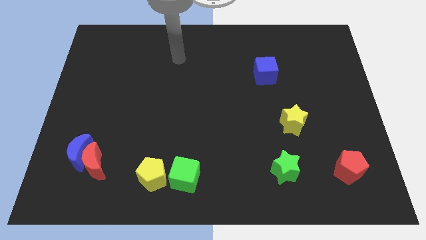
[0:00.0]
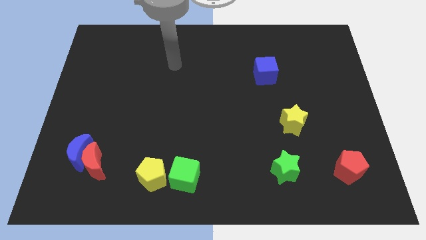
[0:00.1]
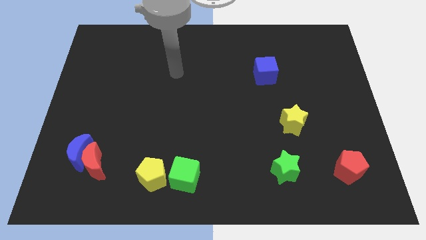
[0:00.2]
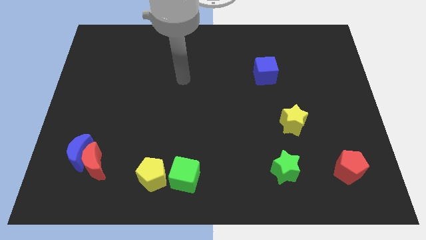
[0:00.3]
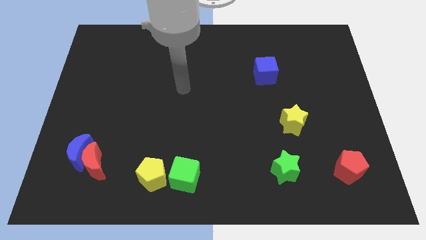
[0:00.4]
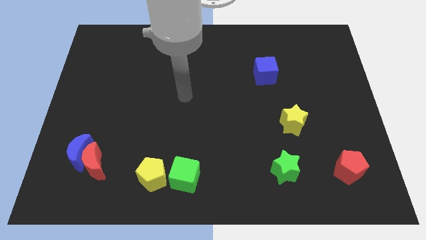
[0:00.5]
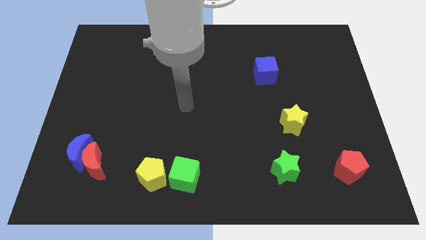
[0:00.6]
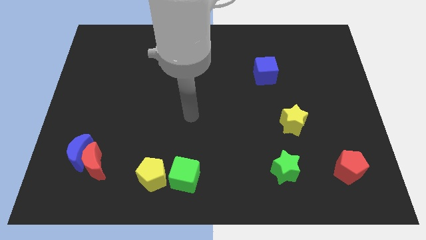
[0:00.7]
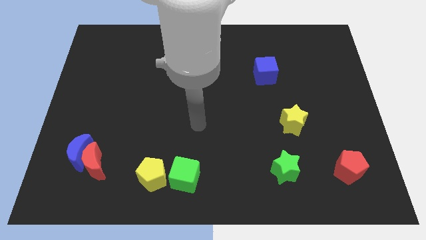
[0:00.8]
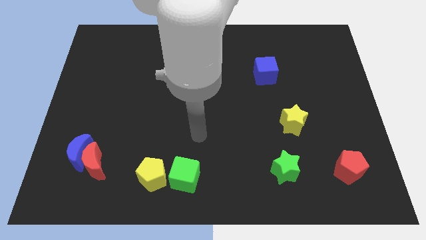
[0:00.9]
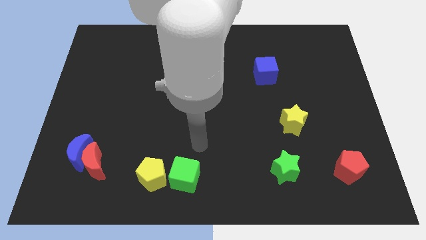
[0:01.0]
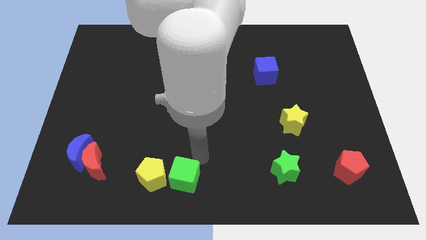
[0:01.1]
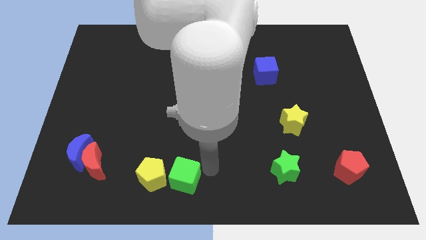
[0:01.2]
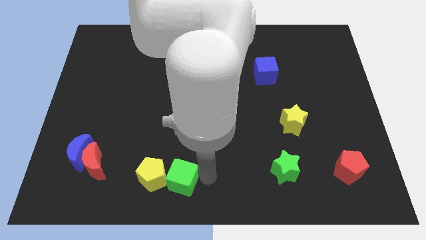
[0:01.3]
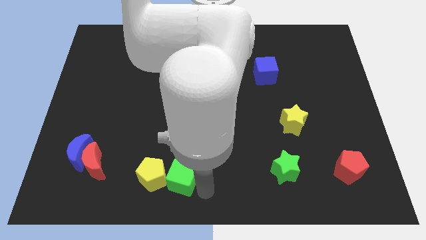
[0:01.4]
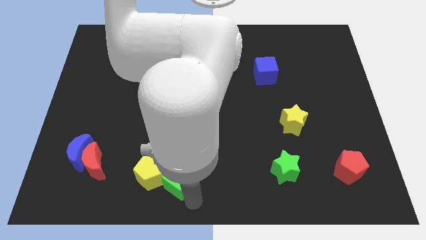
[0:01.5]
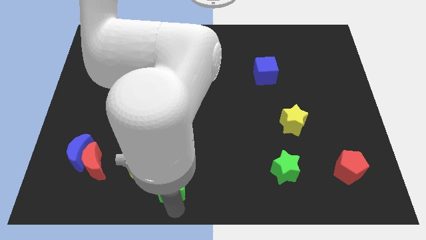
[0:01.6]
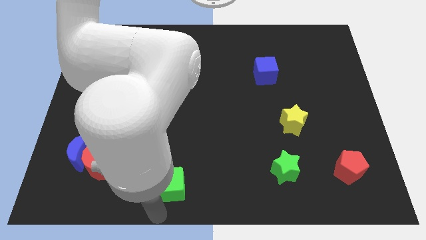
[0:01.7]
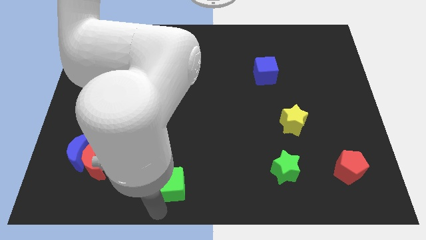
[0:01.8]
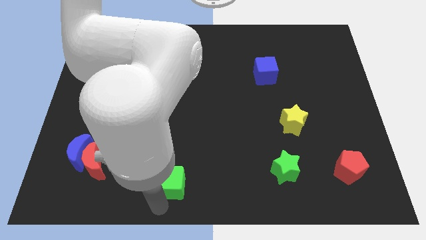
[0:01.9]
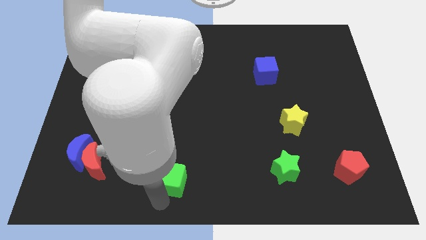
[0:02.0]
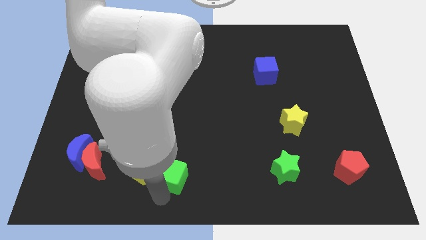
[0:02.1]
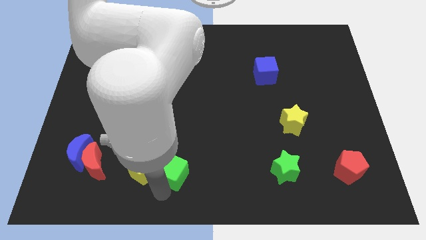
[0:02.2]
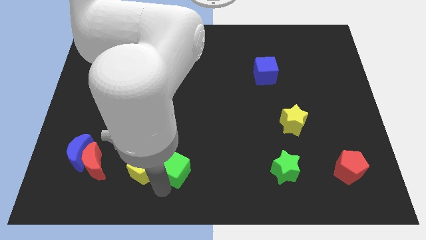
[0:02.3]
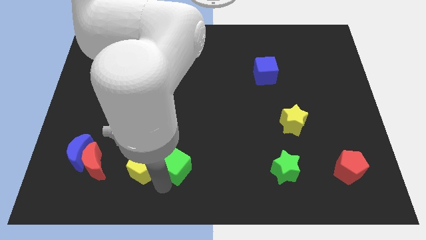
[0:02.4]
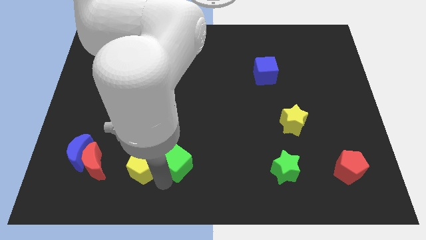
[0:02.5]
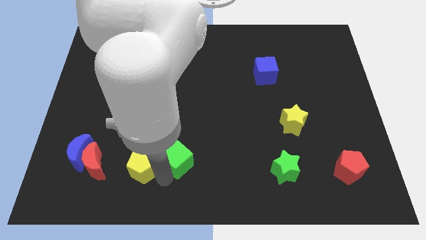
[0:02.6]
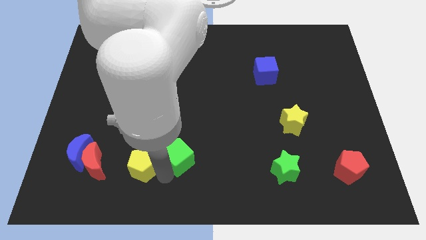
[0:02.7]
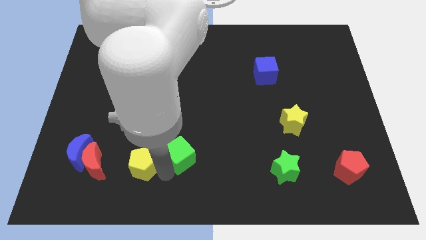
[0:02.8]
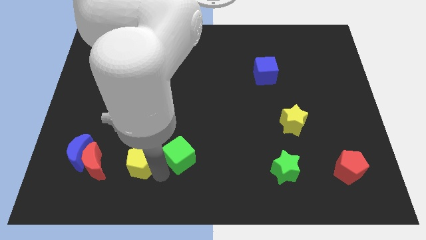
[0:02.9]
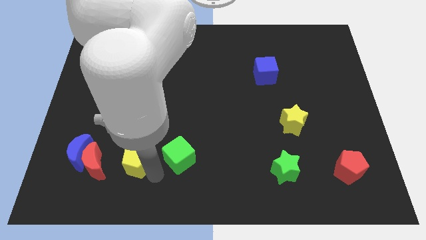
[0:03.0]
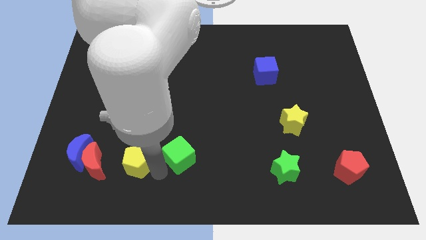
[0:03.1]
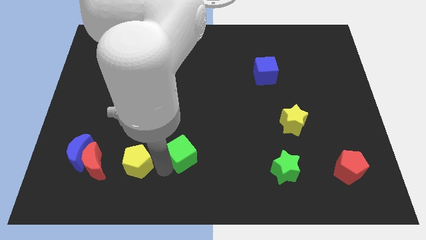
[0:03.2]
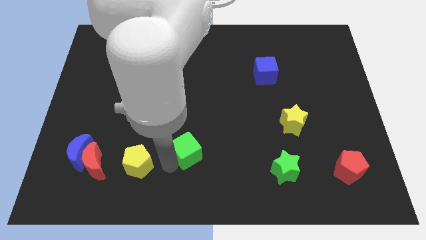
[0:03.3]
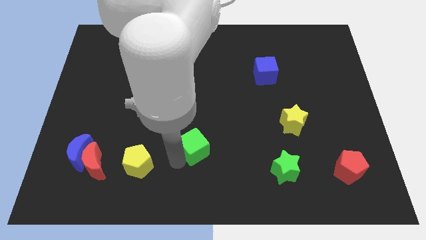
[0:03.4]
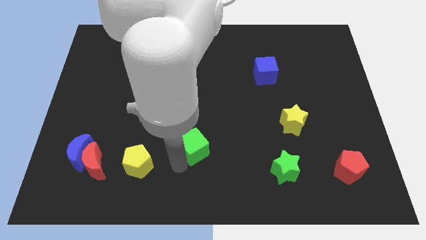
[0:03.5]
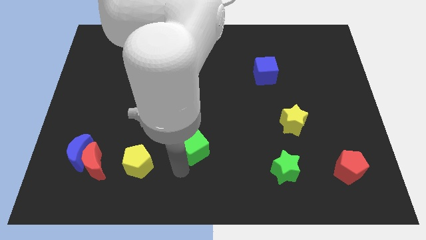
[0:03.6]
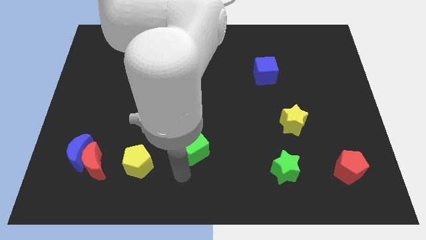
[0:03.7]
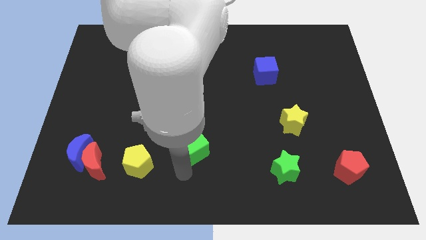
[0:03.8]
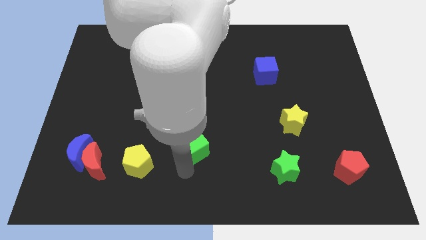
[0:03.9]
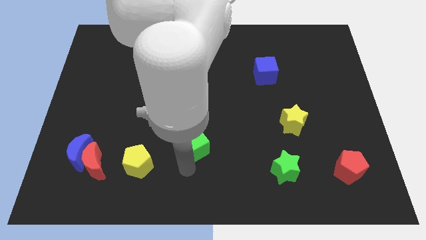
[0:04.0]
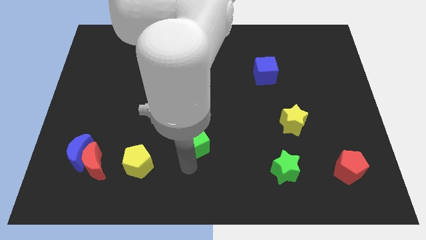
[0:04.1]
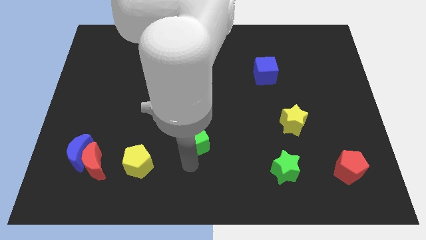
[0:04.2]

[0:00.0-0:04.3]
move the green cube to the middle of the board

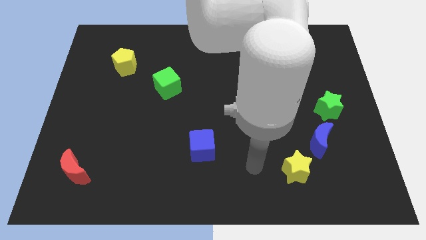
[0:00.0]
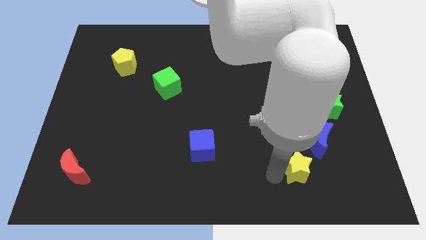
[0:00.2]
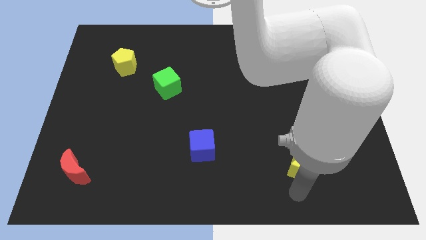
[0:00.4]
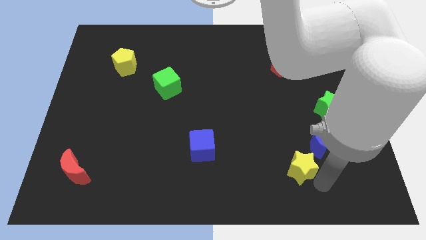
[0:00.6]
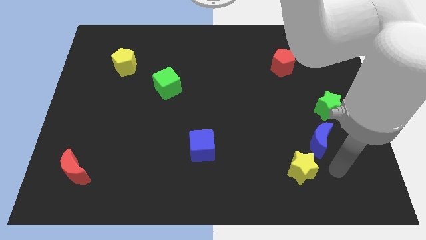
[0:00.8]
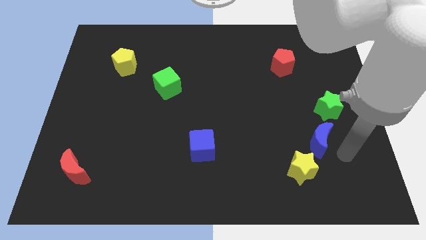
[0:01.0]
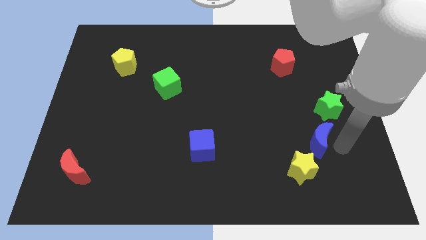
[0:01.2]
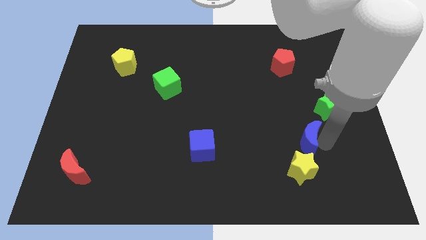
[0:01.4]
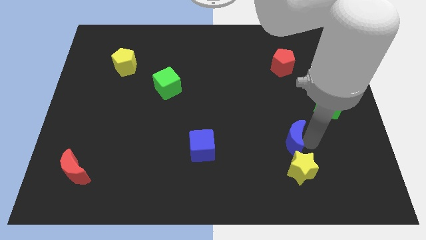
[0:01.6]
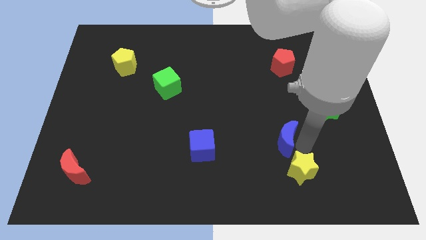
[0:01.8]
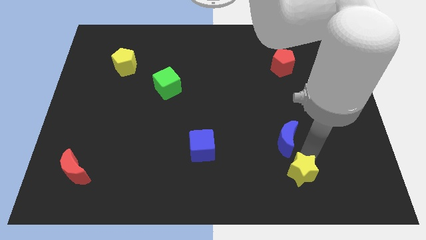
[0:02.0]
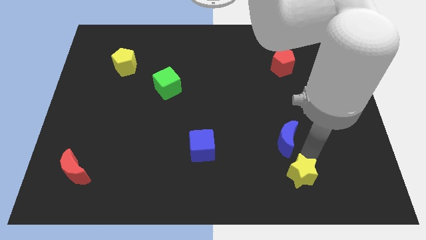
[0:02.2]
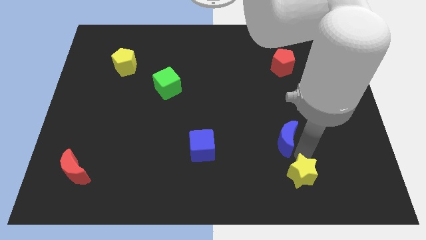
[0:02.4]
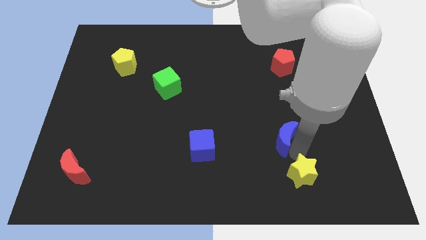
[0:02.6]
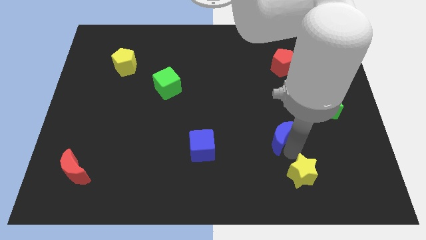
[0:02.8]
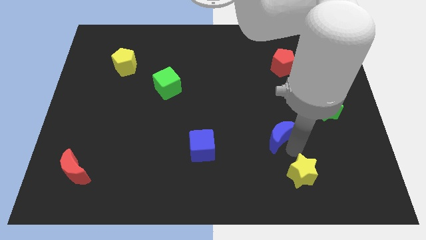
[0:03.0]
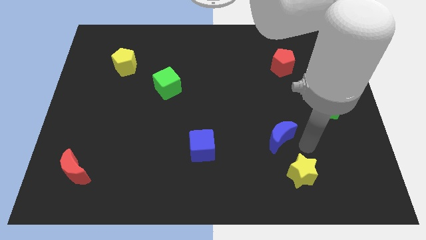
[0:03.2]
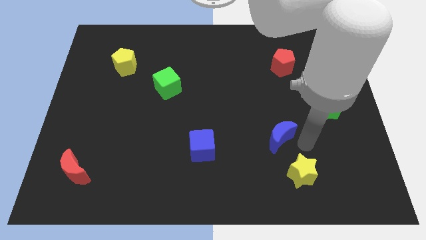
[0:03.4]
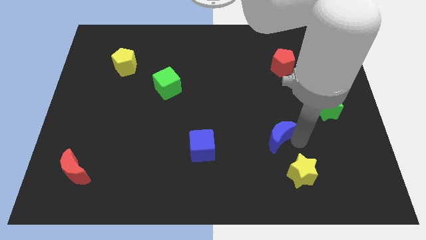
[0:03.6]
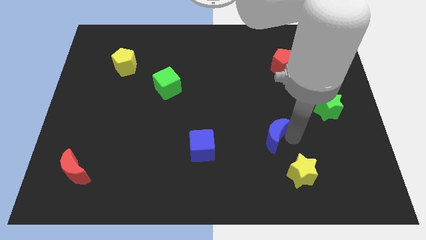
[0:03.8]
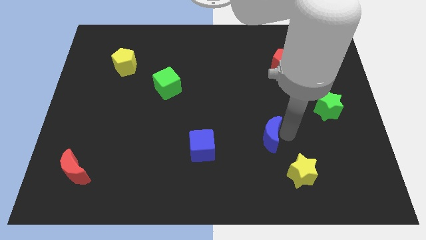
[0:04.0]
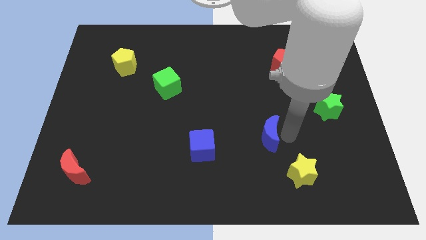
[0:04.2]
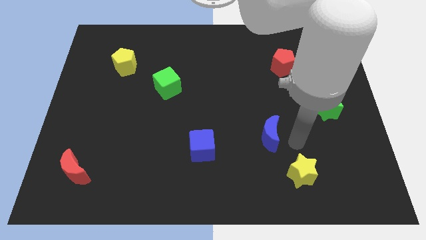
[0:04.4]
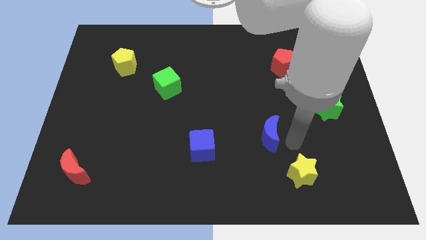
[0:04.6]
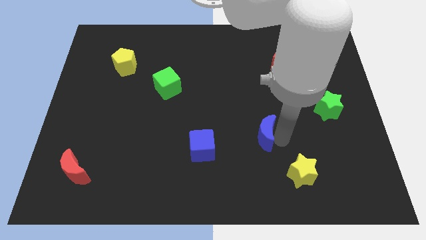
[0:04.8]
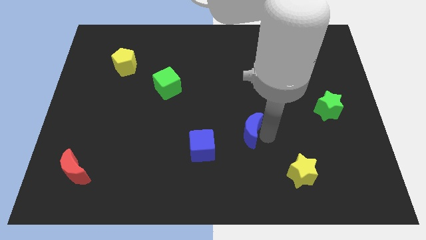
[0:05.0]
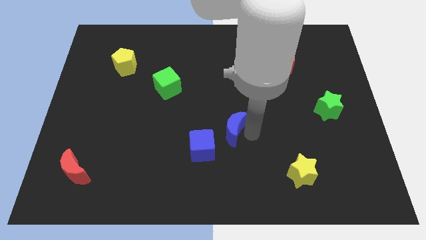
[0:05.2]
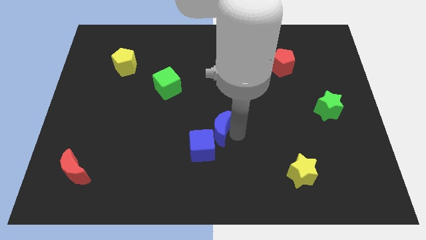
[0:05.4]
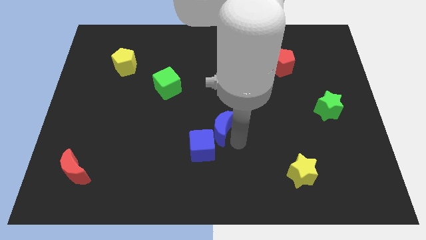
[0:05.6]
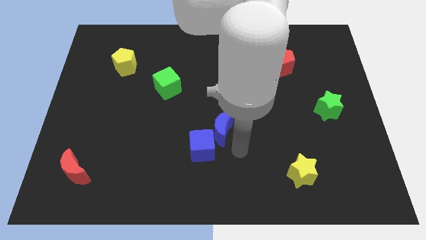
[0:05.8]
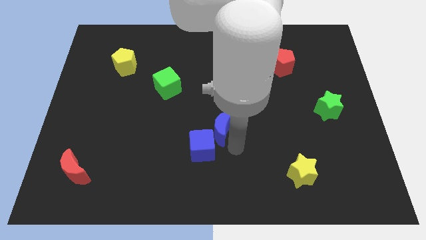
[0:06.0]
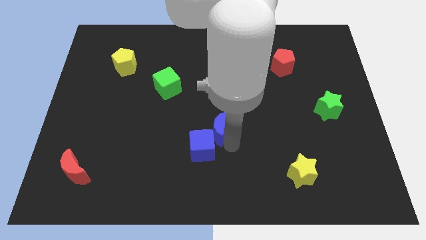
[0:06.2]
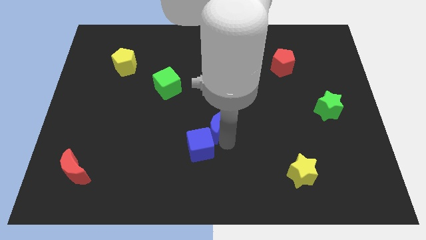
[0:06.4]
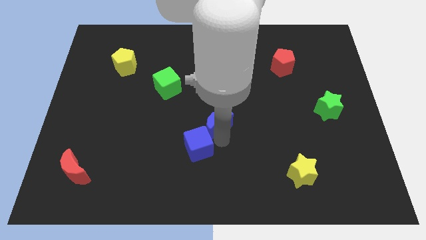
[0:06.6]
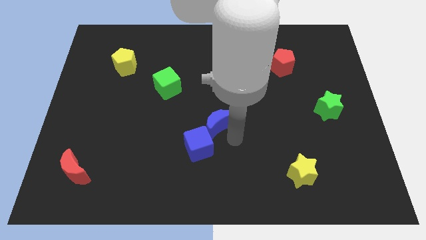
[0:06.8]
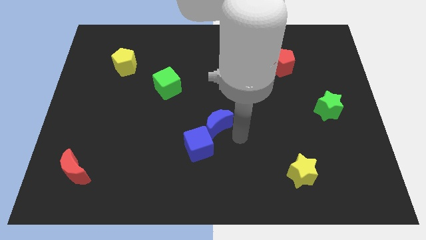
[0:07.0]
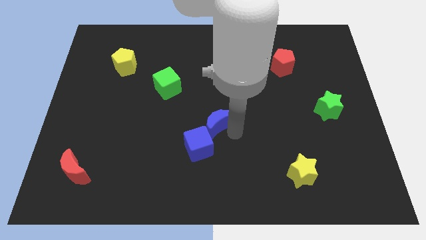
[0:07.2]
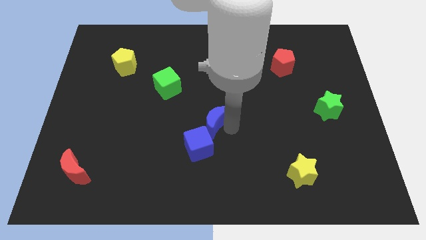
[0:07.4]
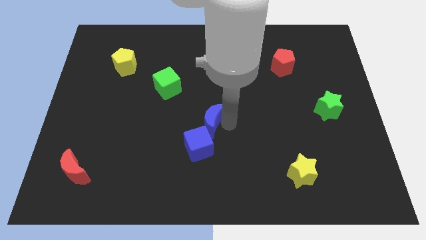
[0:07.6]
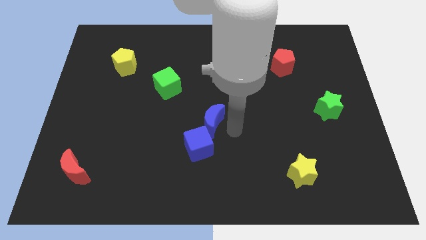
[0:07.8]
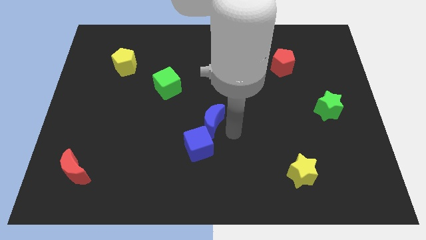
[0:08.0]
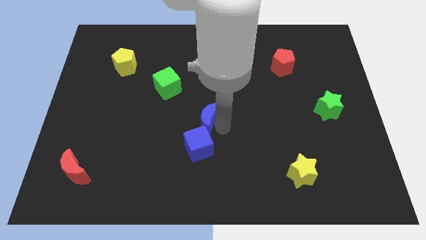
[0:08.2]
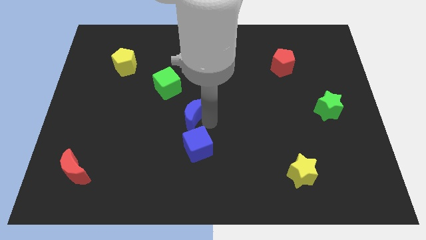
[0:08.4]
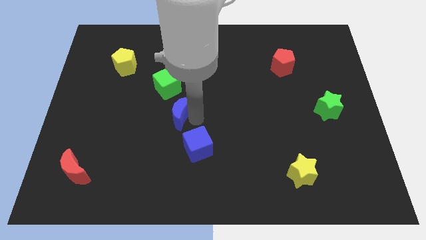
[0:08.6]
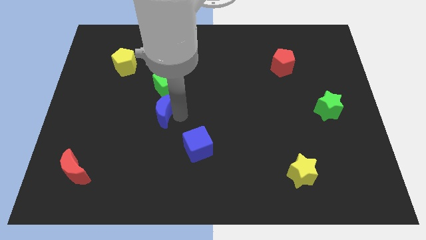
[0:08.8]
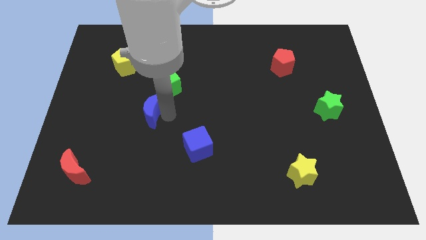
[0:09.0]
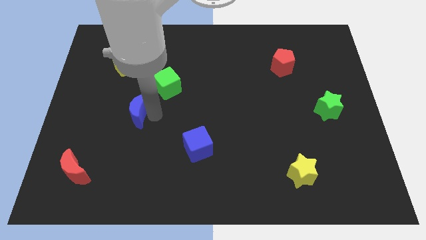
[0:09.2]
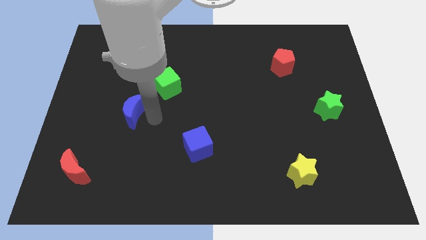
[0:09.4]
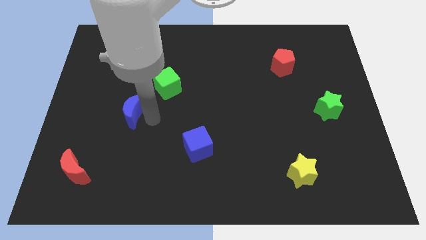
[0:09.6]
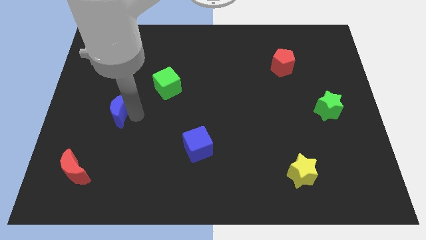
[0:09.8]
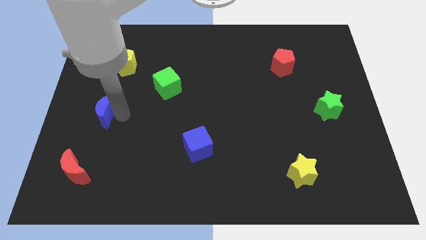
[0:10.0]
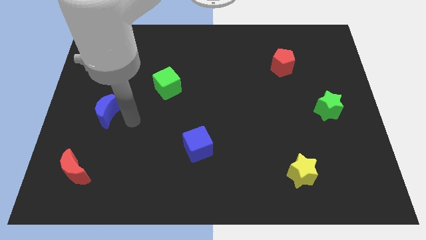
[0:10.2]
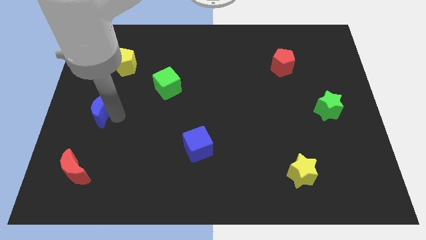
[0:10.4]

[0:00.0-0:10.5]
put the blue moon to the left side
